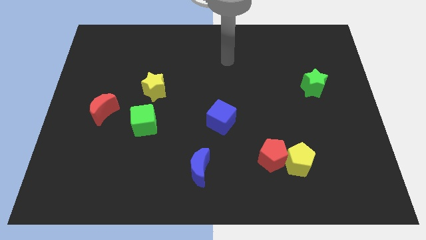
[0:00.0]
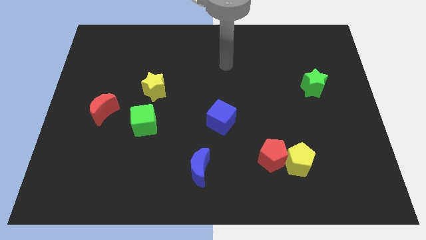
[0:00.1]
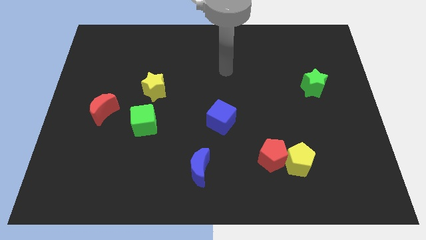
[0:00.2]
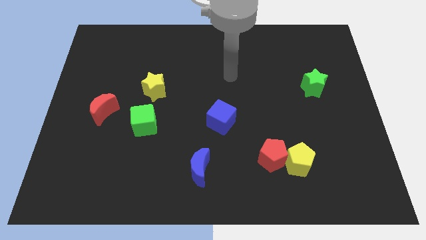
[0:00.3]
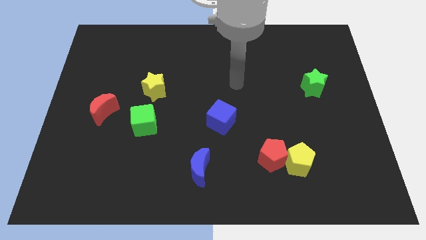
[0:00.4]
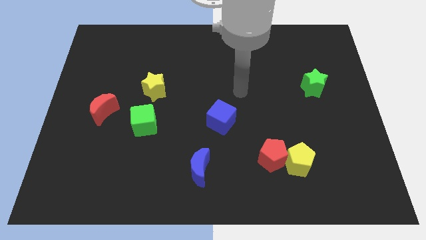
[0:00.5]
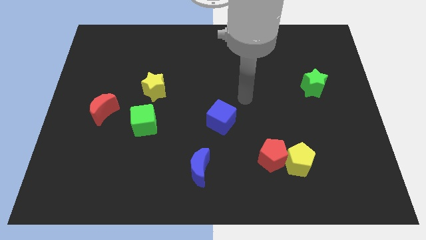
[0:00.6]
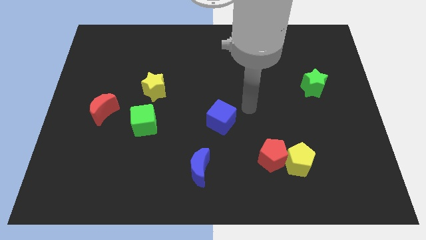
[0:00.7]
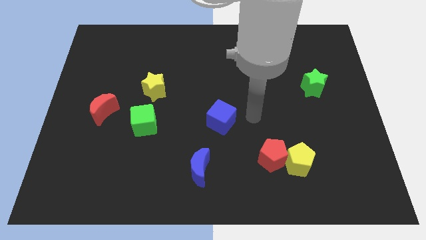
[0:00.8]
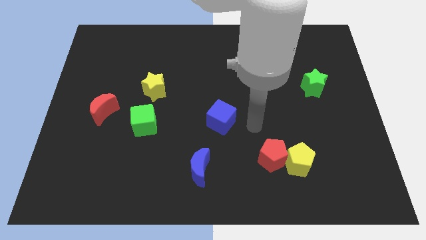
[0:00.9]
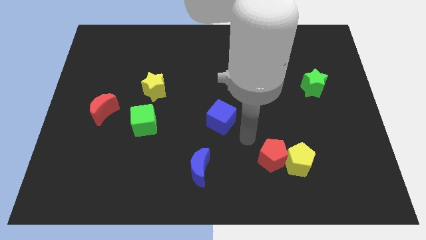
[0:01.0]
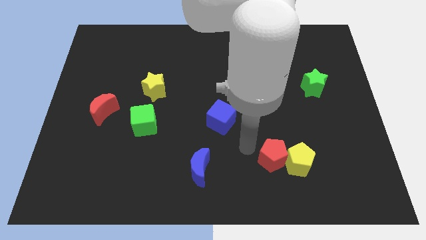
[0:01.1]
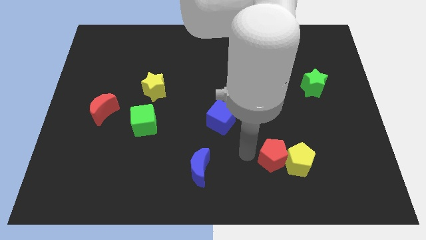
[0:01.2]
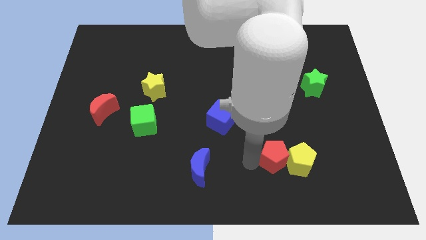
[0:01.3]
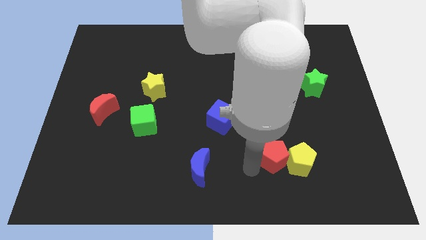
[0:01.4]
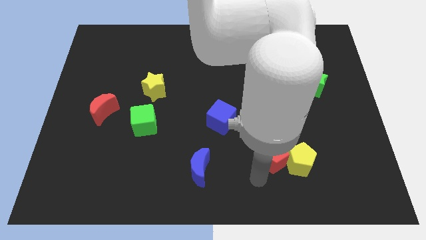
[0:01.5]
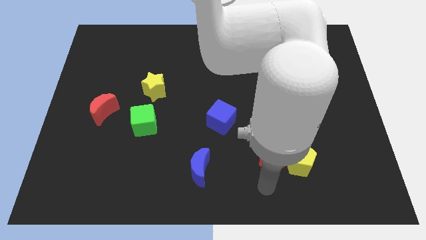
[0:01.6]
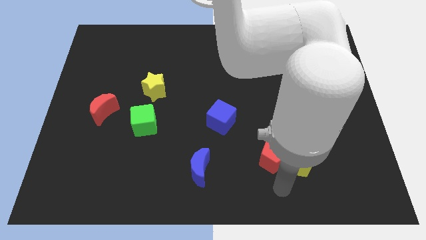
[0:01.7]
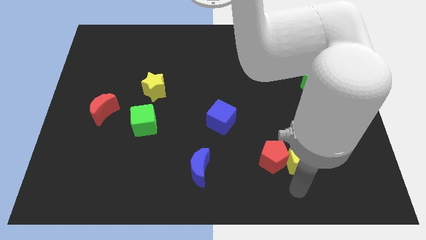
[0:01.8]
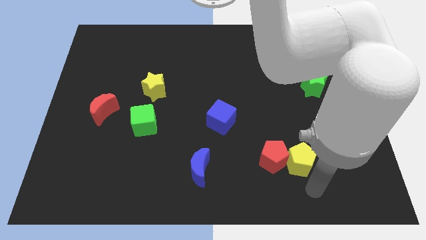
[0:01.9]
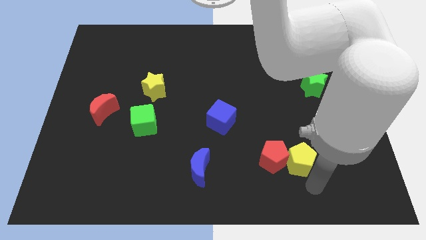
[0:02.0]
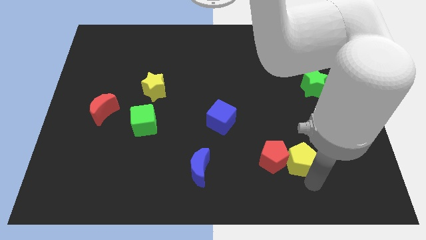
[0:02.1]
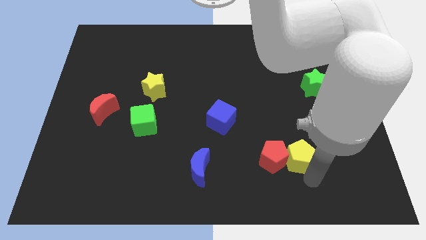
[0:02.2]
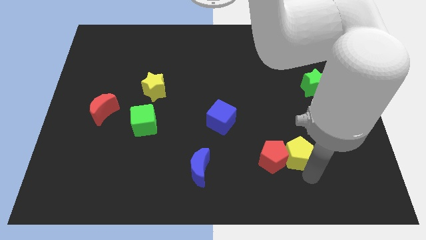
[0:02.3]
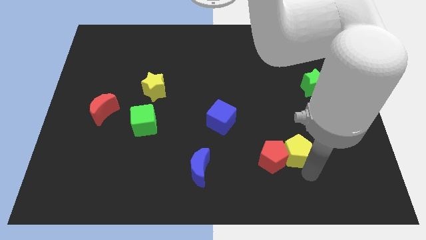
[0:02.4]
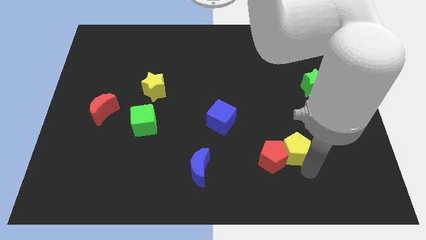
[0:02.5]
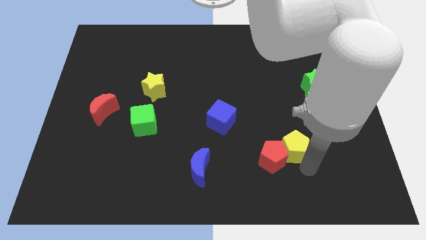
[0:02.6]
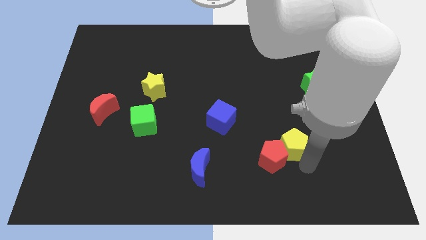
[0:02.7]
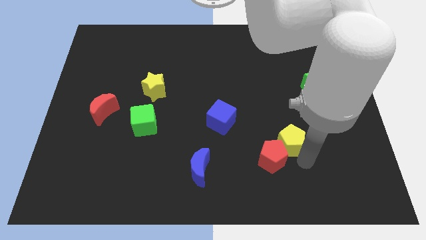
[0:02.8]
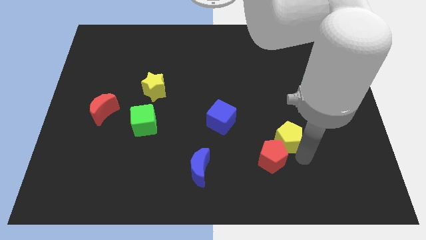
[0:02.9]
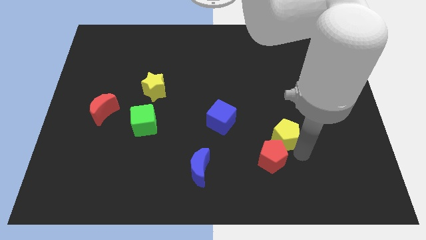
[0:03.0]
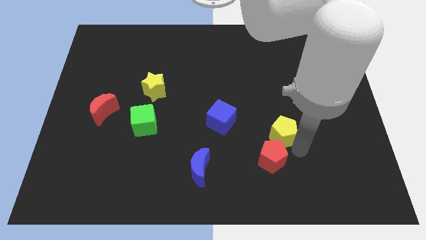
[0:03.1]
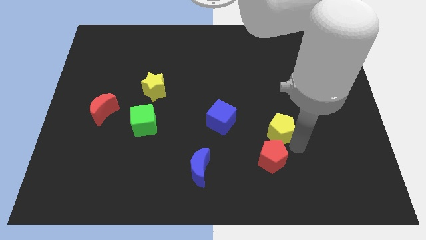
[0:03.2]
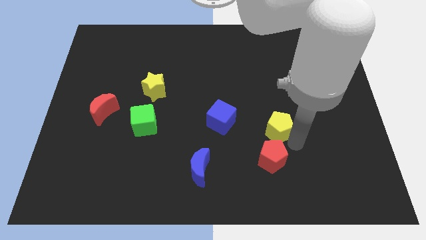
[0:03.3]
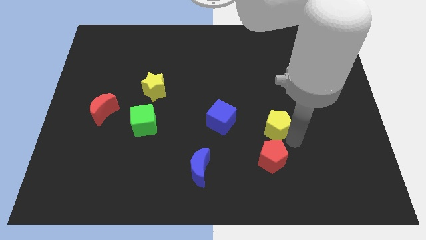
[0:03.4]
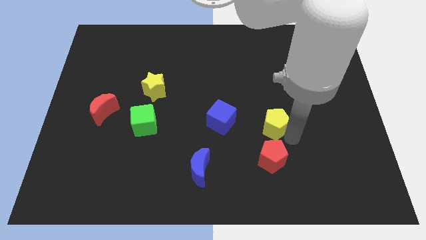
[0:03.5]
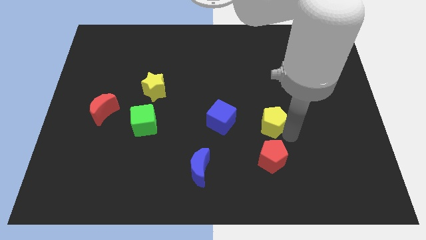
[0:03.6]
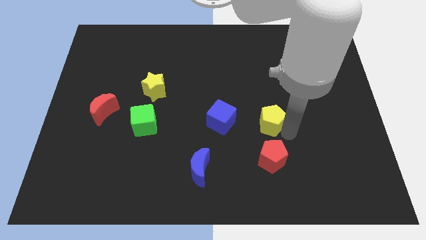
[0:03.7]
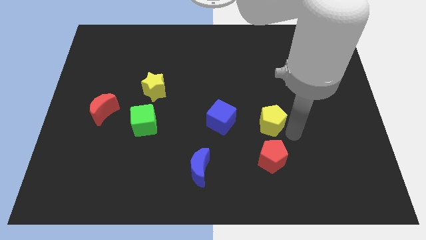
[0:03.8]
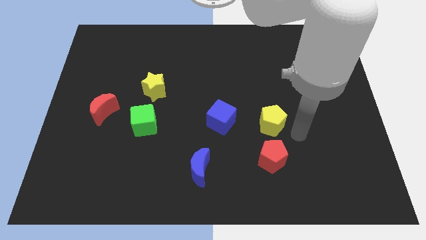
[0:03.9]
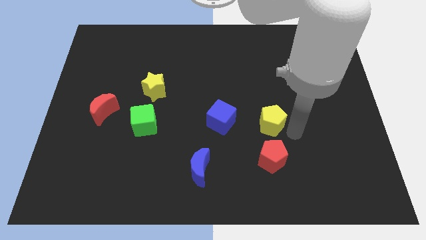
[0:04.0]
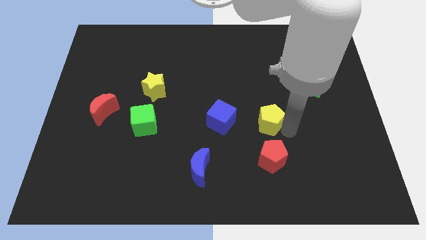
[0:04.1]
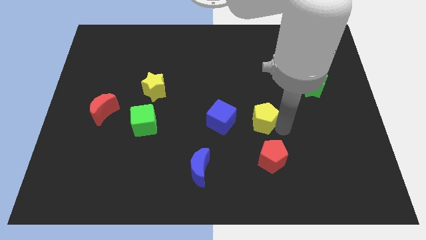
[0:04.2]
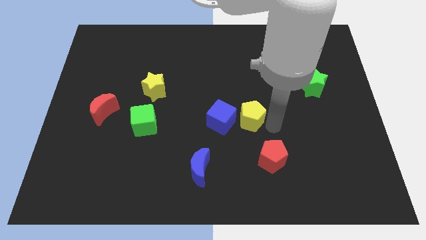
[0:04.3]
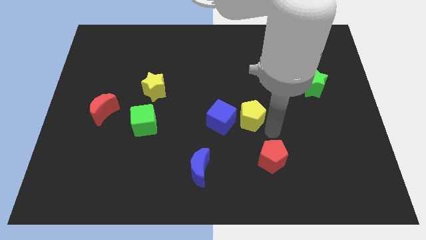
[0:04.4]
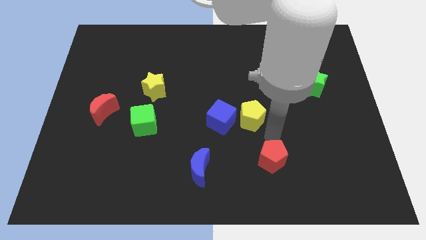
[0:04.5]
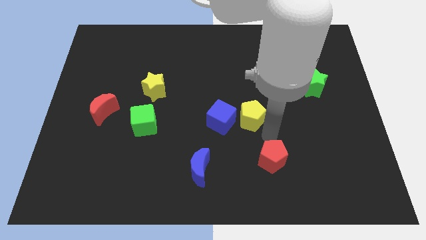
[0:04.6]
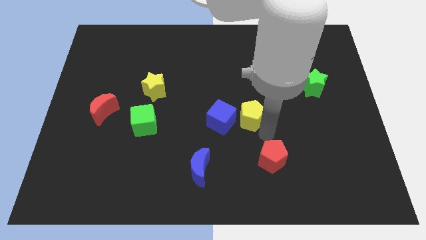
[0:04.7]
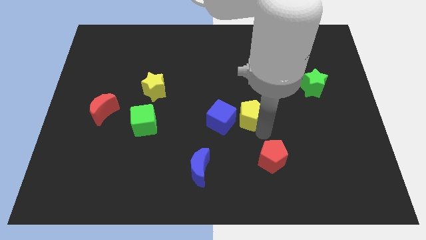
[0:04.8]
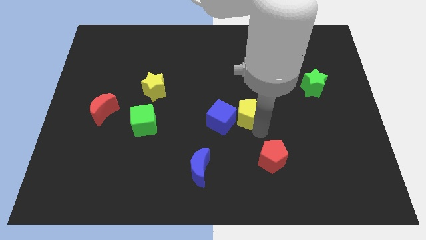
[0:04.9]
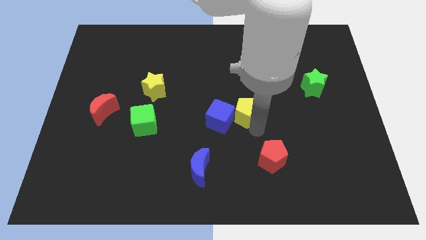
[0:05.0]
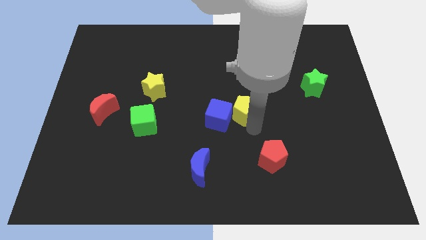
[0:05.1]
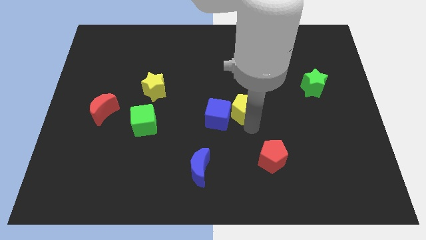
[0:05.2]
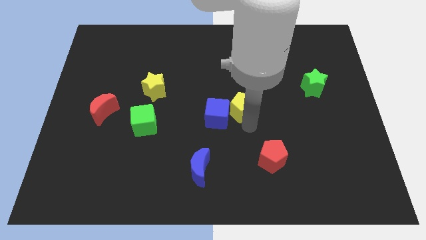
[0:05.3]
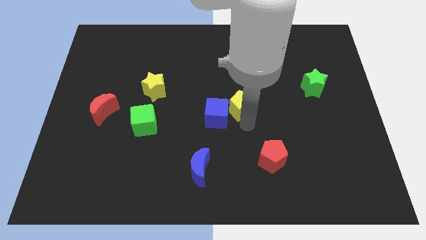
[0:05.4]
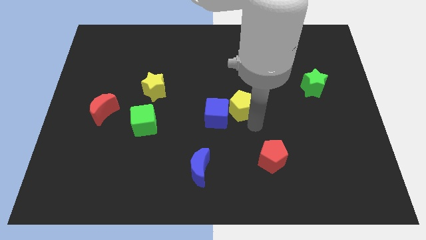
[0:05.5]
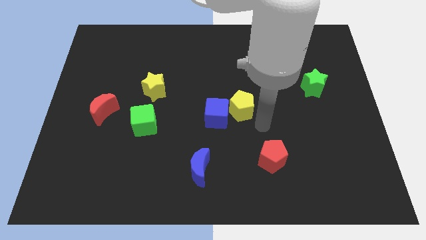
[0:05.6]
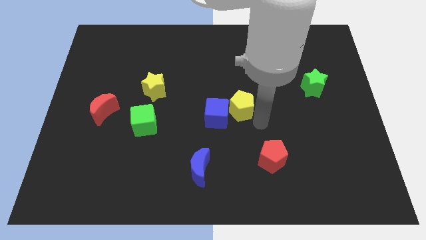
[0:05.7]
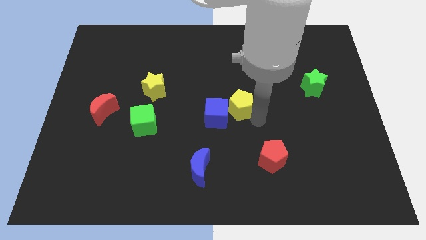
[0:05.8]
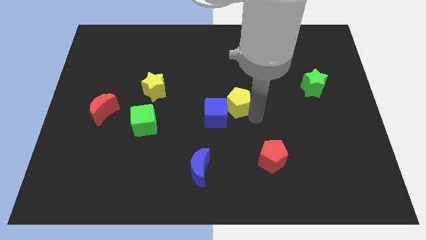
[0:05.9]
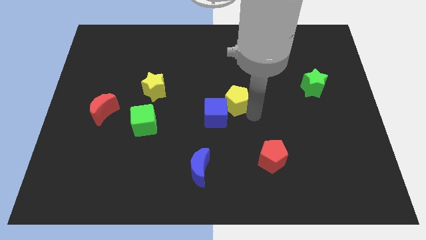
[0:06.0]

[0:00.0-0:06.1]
move the yellow pentagon diagonally up and left

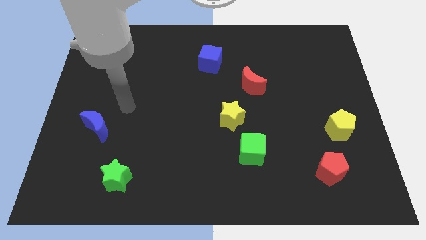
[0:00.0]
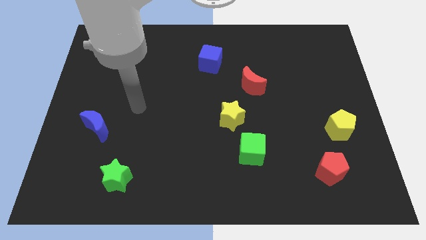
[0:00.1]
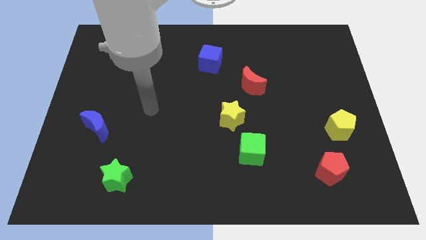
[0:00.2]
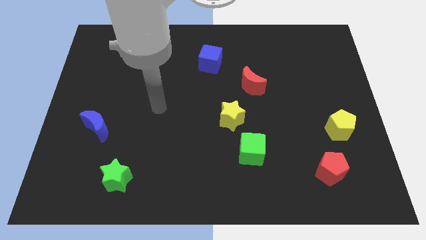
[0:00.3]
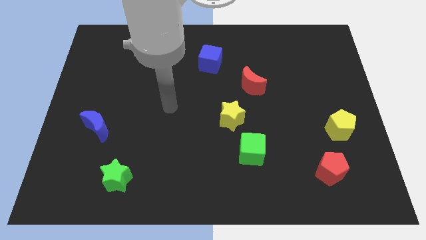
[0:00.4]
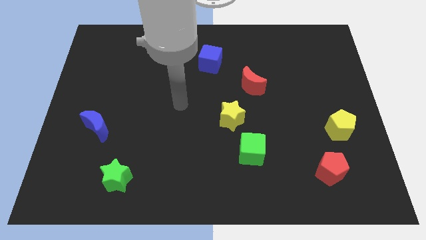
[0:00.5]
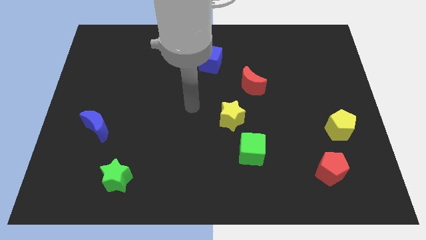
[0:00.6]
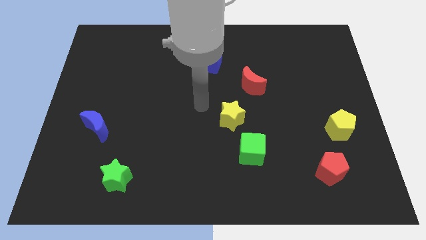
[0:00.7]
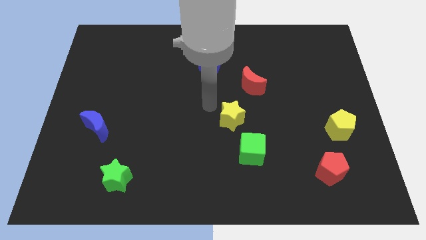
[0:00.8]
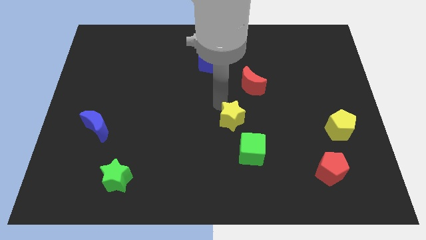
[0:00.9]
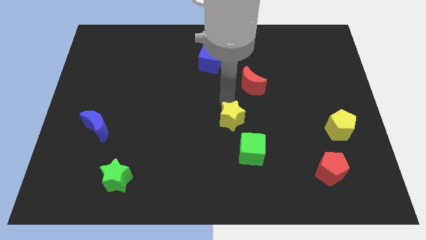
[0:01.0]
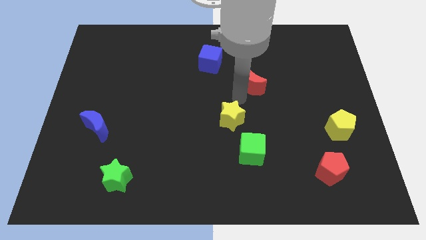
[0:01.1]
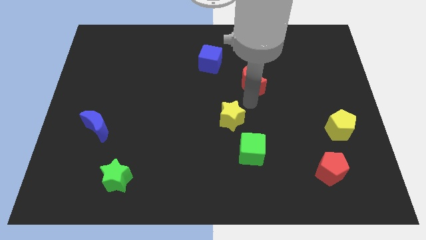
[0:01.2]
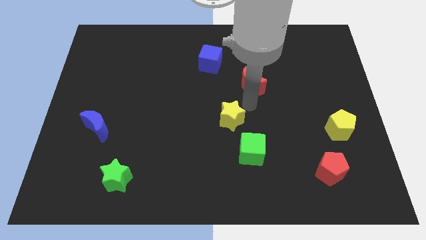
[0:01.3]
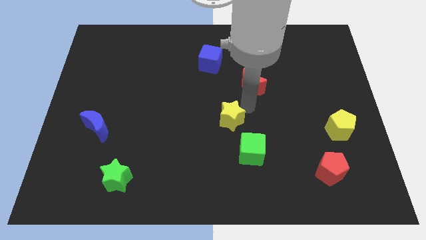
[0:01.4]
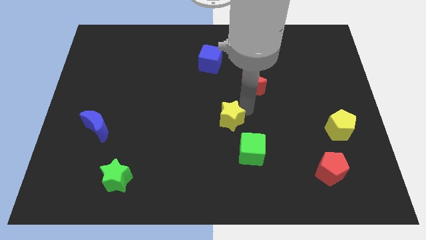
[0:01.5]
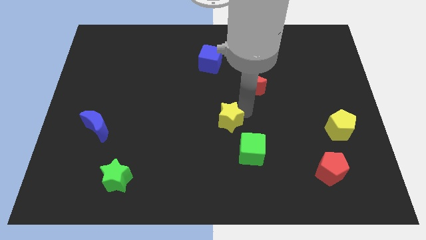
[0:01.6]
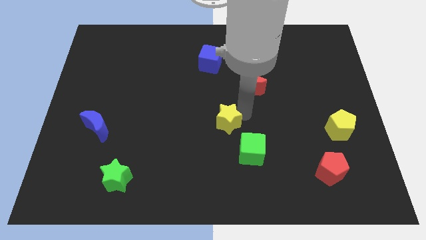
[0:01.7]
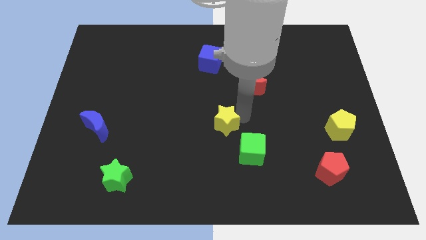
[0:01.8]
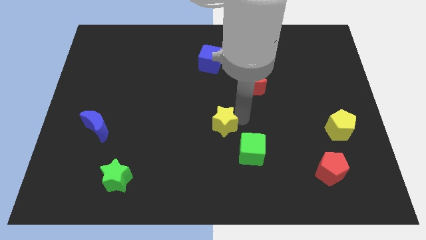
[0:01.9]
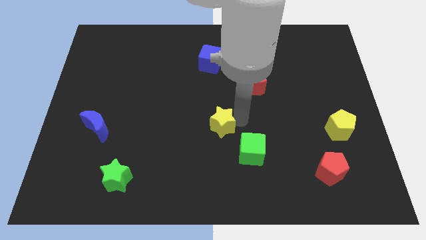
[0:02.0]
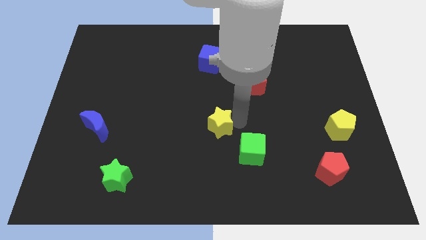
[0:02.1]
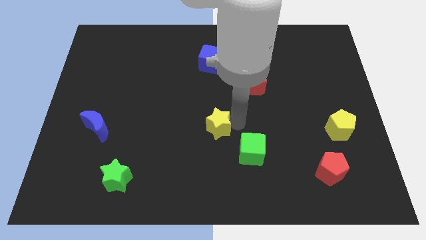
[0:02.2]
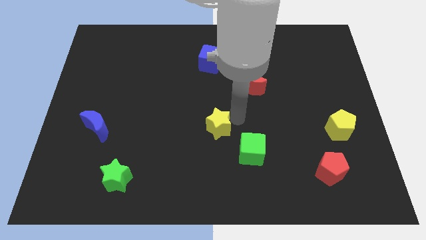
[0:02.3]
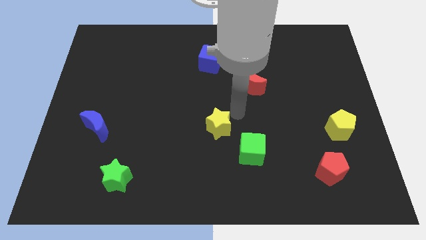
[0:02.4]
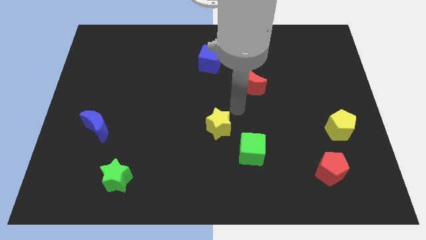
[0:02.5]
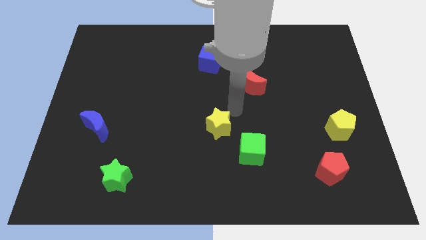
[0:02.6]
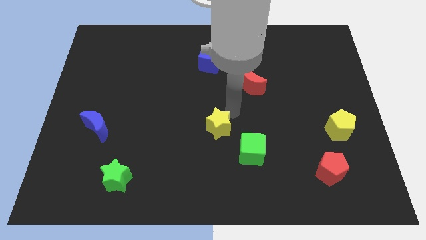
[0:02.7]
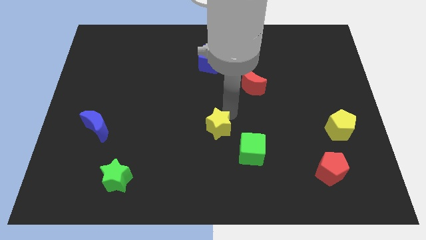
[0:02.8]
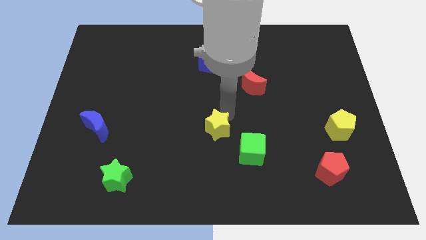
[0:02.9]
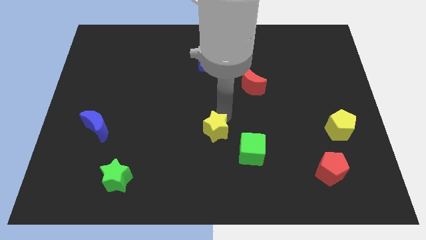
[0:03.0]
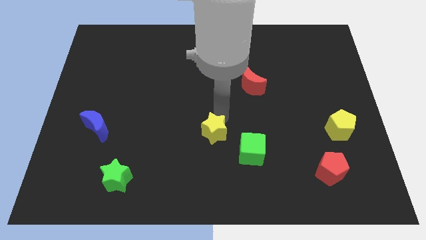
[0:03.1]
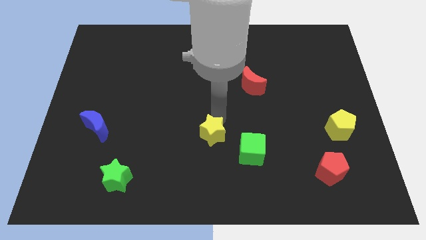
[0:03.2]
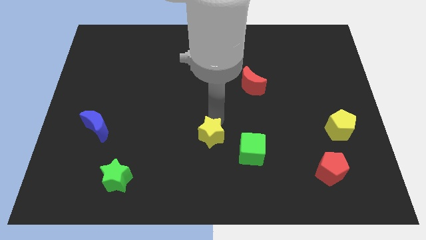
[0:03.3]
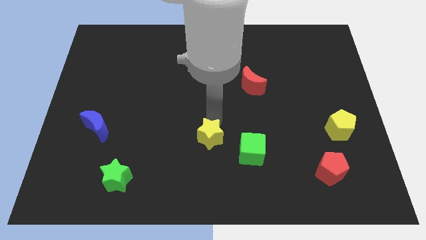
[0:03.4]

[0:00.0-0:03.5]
push the yellow star a bit down and to the left diagonally
